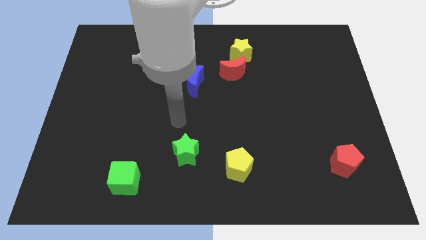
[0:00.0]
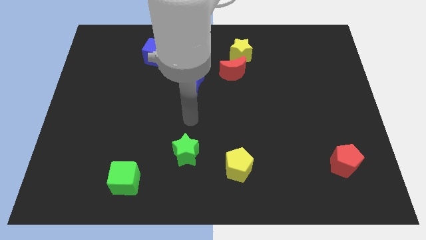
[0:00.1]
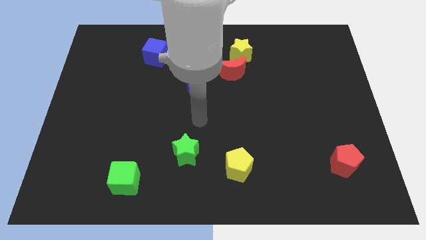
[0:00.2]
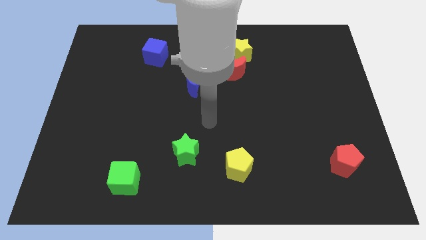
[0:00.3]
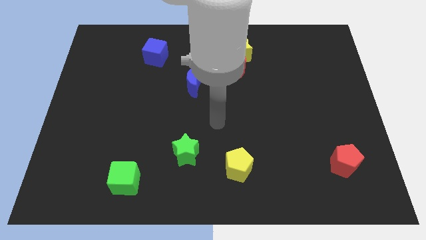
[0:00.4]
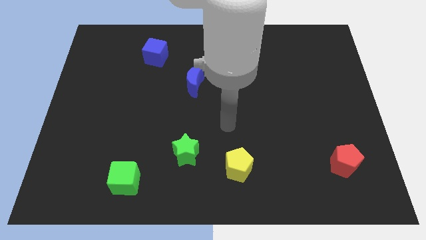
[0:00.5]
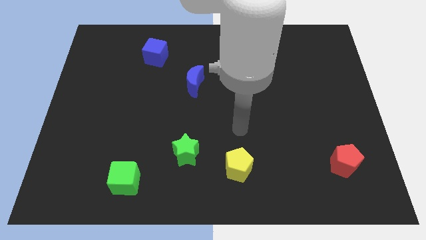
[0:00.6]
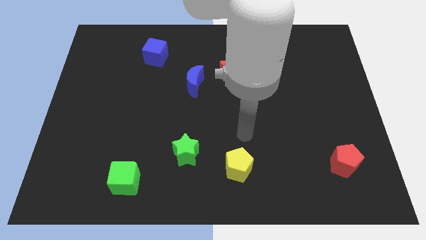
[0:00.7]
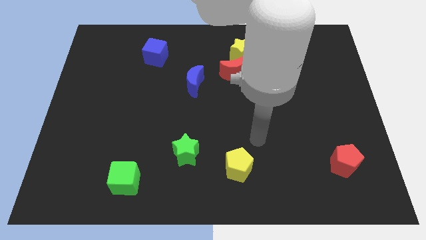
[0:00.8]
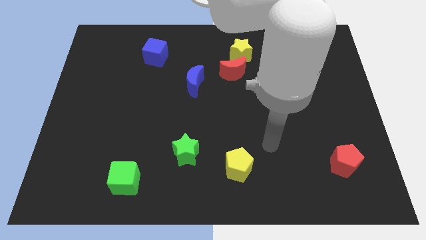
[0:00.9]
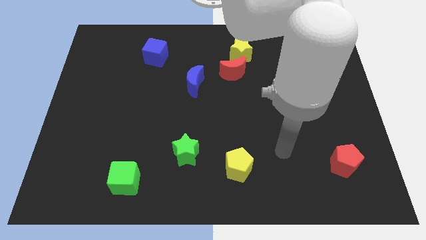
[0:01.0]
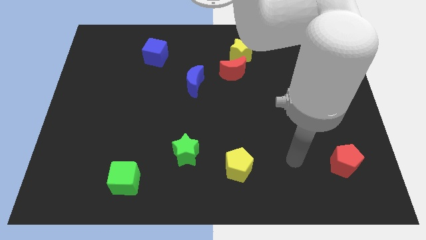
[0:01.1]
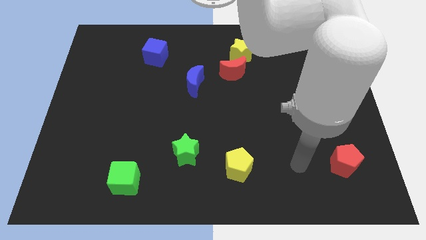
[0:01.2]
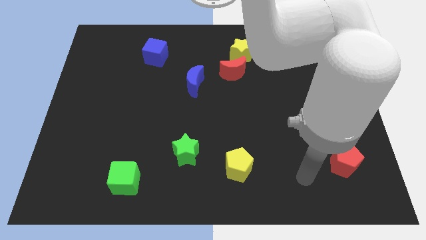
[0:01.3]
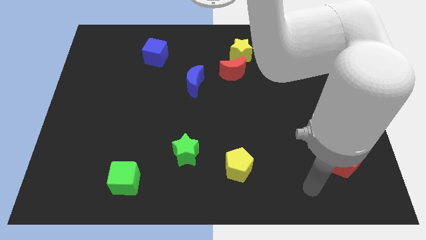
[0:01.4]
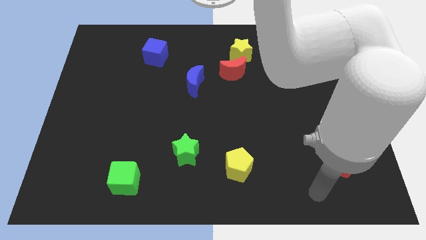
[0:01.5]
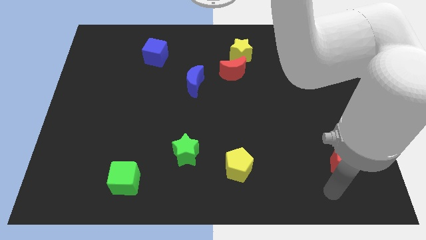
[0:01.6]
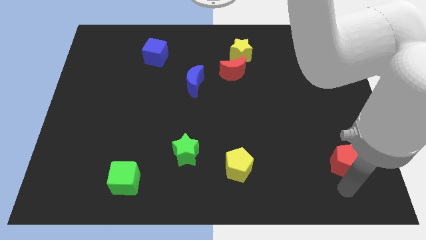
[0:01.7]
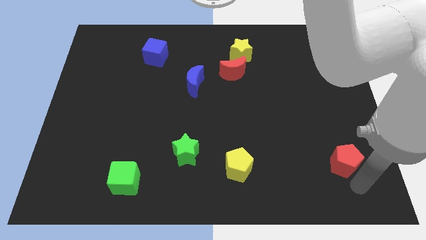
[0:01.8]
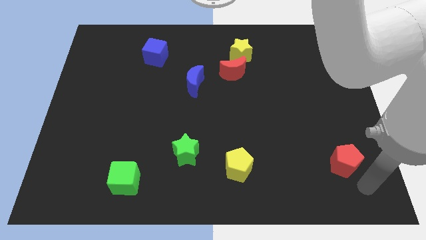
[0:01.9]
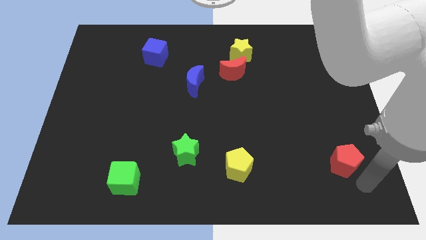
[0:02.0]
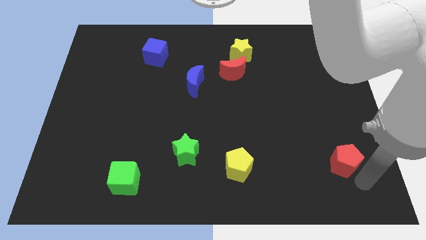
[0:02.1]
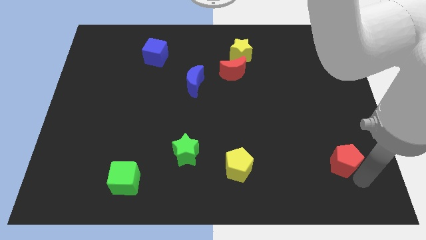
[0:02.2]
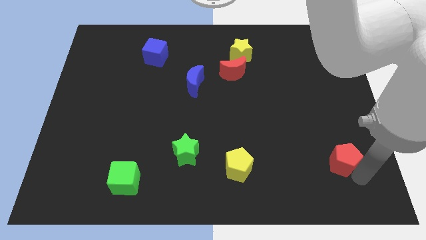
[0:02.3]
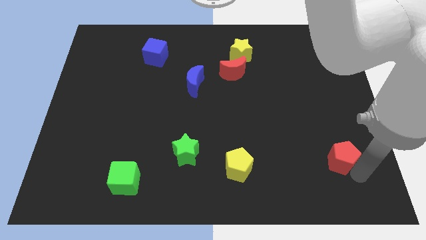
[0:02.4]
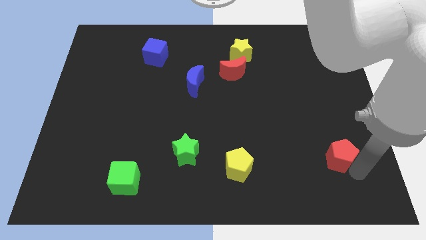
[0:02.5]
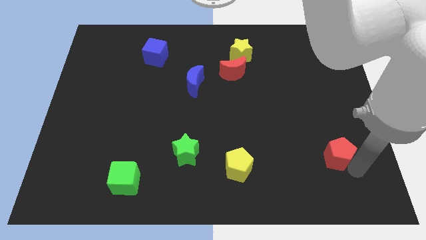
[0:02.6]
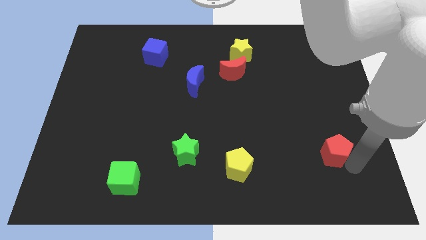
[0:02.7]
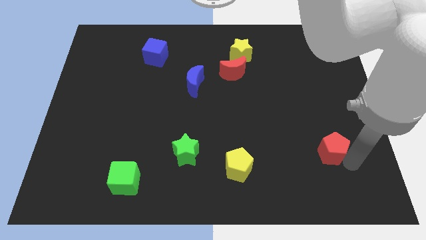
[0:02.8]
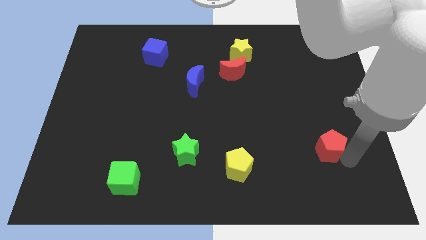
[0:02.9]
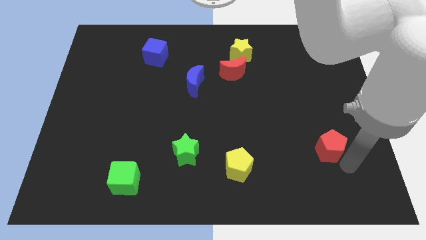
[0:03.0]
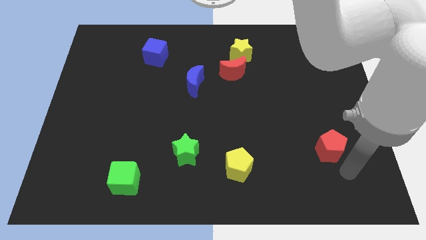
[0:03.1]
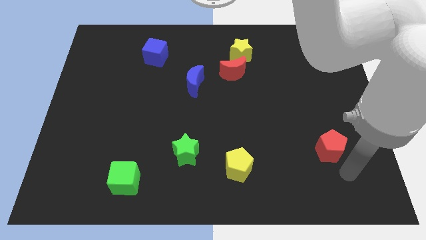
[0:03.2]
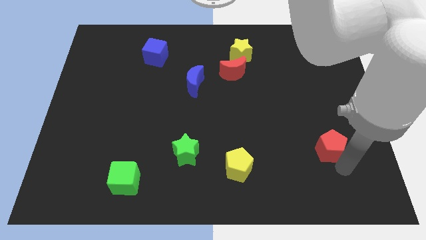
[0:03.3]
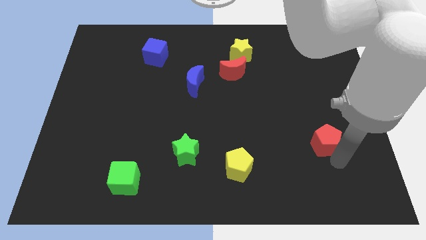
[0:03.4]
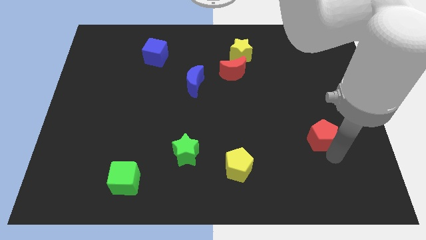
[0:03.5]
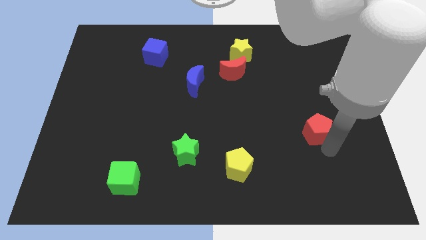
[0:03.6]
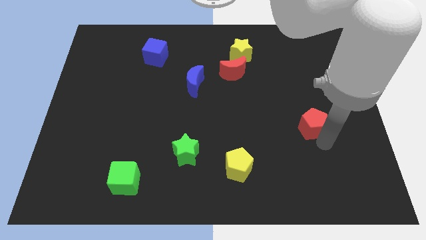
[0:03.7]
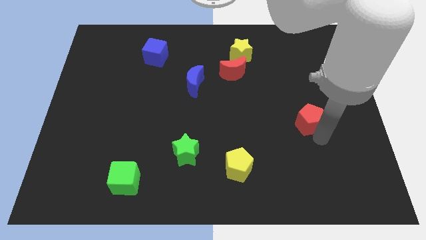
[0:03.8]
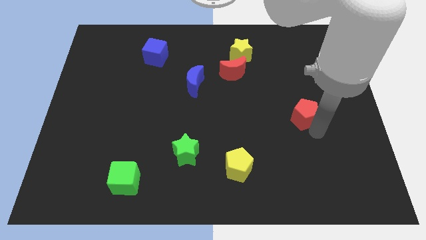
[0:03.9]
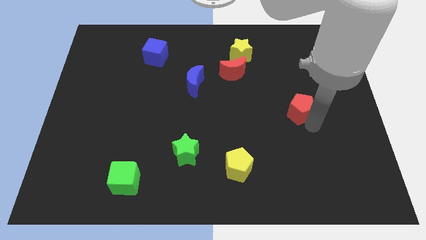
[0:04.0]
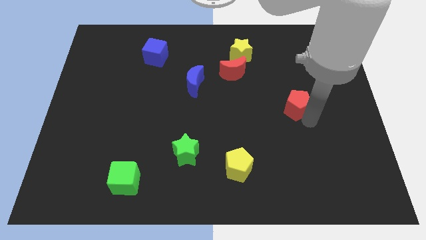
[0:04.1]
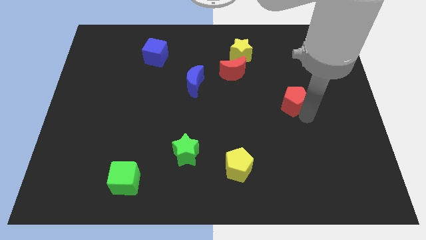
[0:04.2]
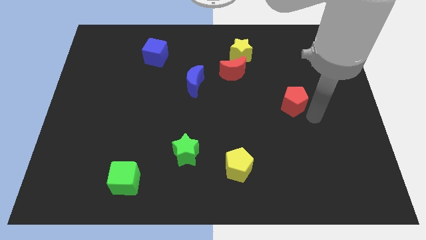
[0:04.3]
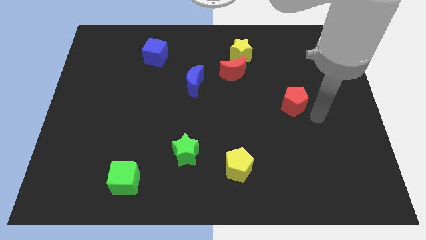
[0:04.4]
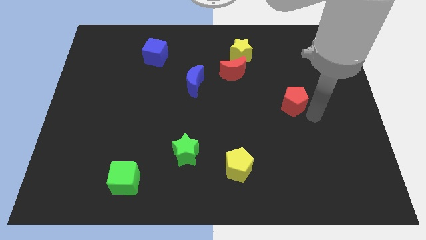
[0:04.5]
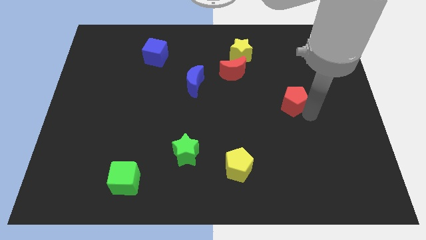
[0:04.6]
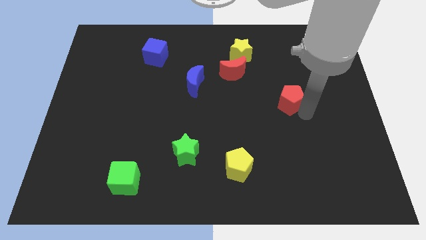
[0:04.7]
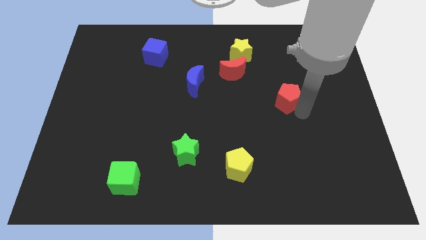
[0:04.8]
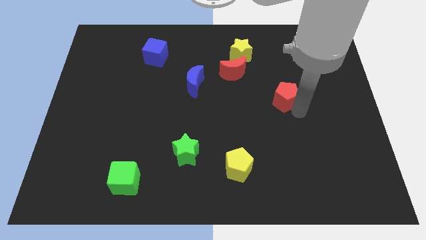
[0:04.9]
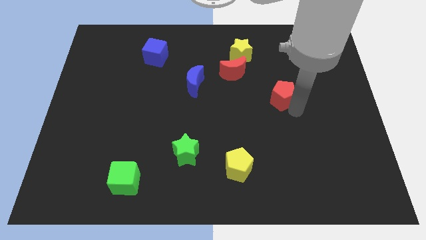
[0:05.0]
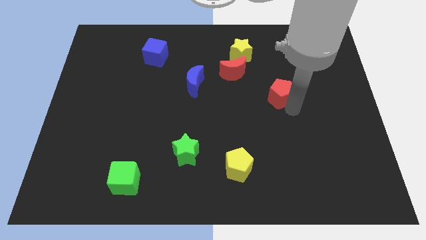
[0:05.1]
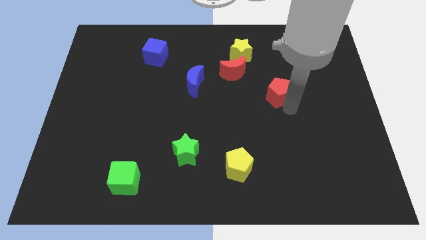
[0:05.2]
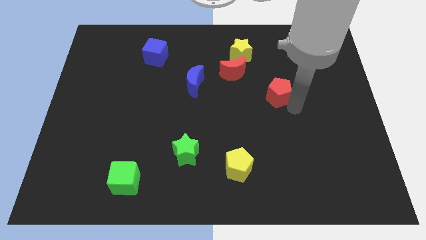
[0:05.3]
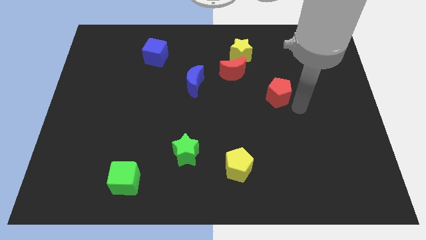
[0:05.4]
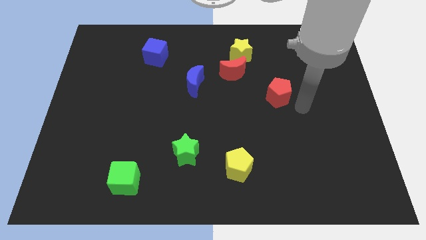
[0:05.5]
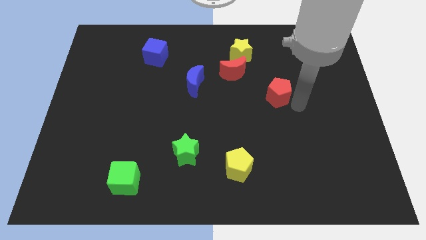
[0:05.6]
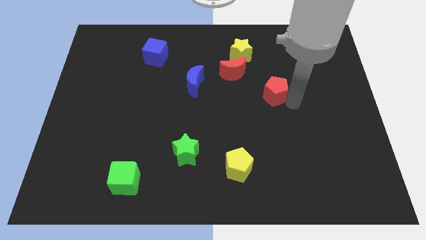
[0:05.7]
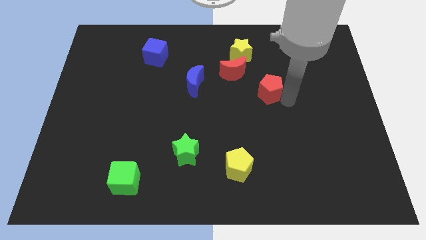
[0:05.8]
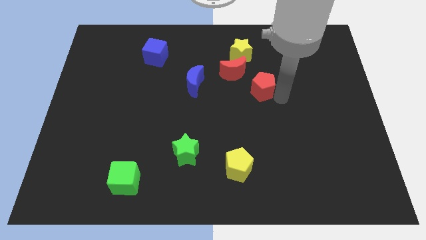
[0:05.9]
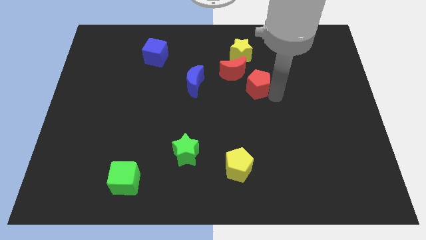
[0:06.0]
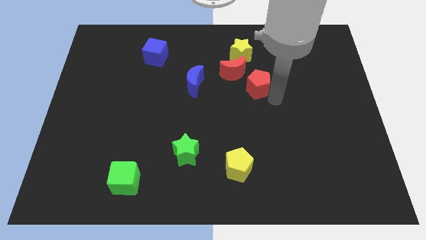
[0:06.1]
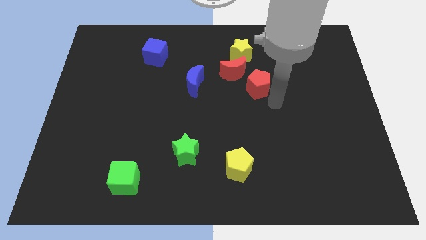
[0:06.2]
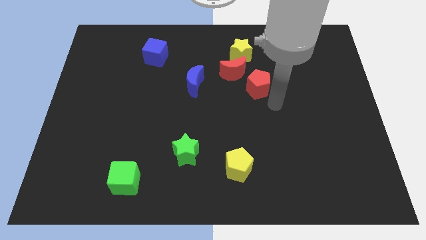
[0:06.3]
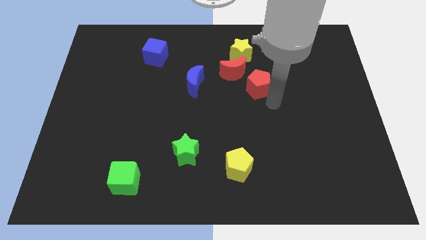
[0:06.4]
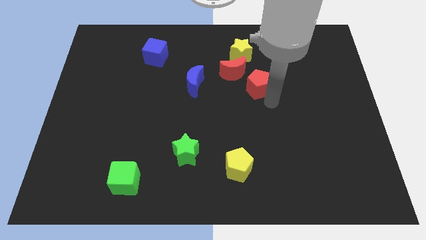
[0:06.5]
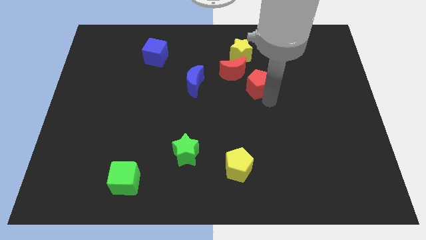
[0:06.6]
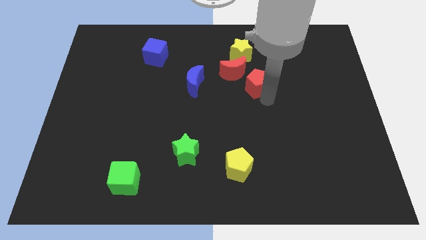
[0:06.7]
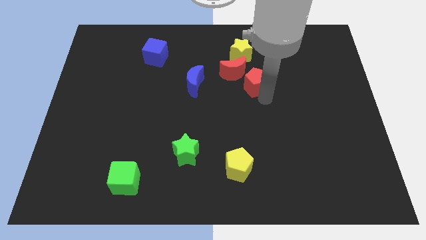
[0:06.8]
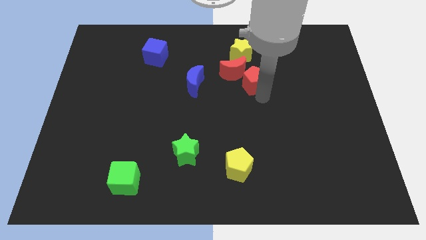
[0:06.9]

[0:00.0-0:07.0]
put the red pentagon next to the red moon

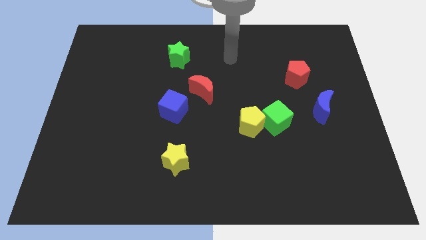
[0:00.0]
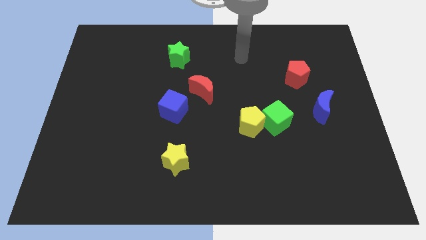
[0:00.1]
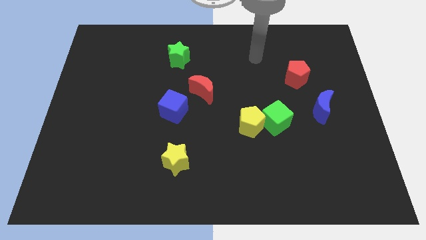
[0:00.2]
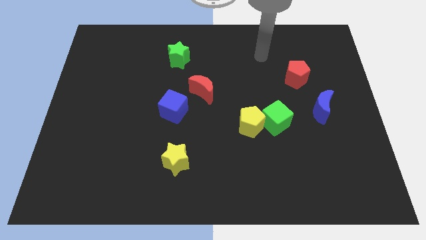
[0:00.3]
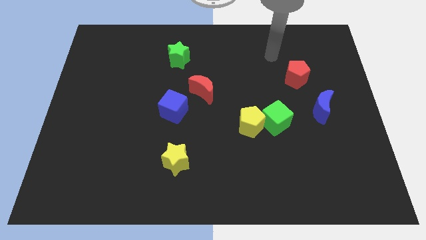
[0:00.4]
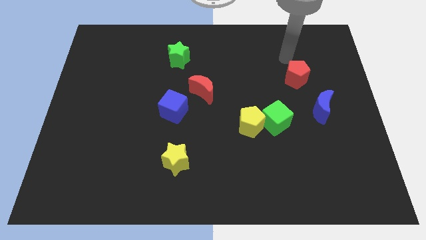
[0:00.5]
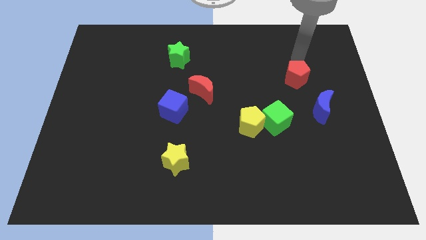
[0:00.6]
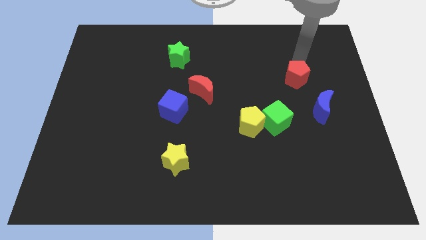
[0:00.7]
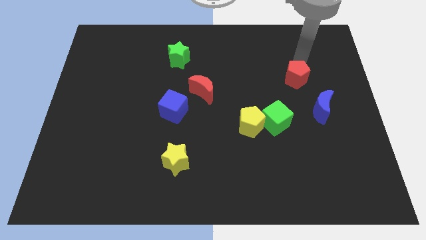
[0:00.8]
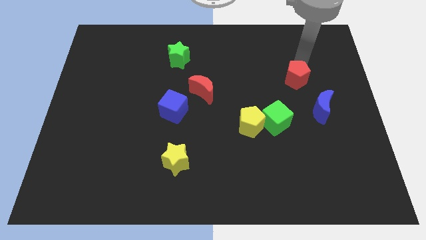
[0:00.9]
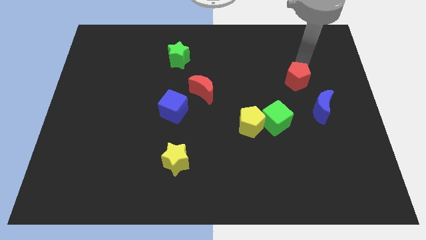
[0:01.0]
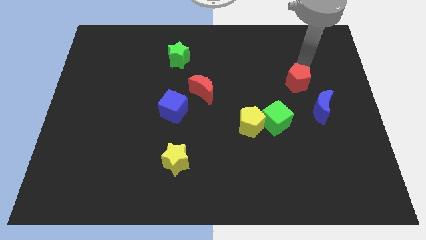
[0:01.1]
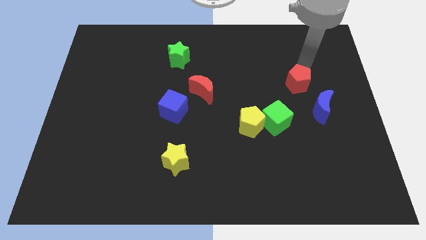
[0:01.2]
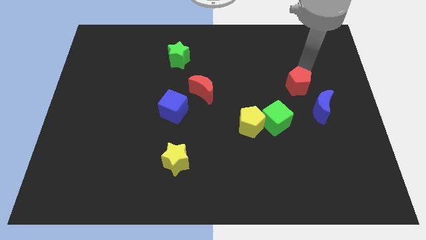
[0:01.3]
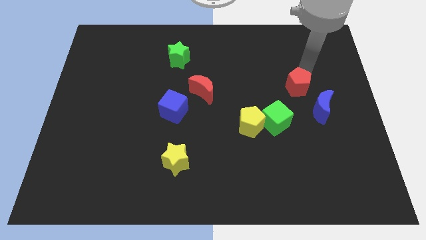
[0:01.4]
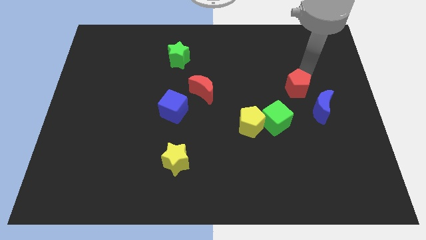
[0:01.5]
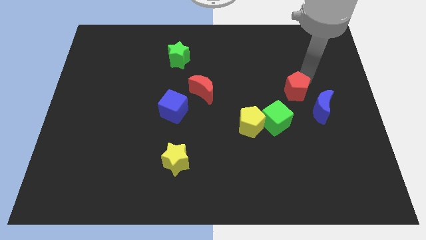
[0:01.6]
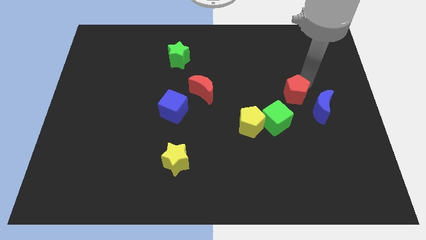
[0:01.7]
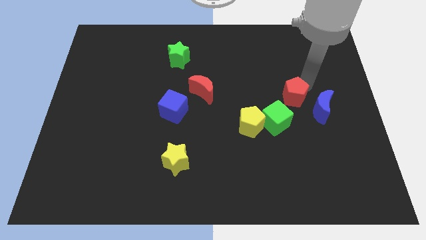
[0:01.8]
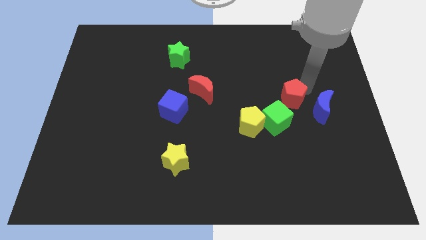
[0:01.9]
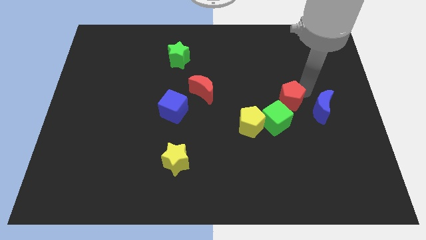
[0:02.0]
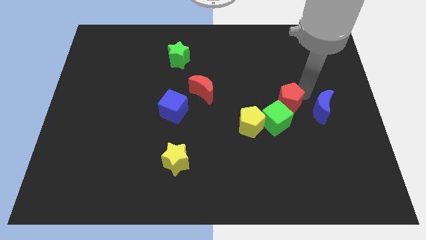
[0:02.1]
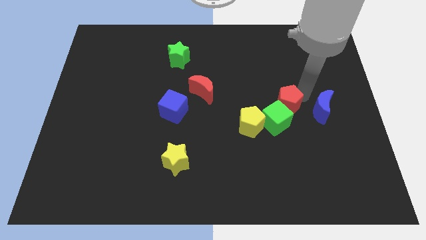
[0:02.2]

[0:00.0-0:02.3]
push the red pentagon towards the green cube
